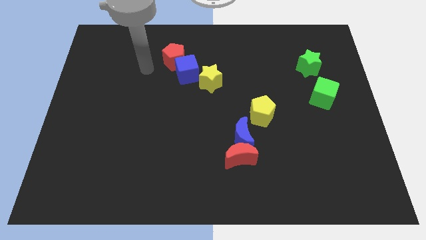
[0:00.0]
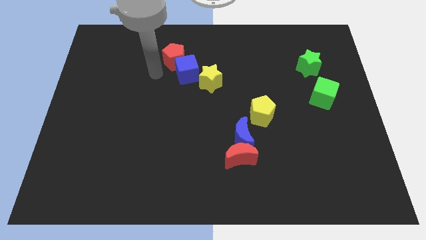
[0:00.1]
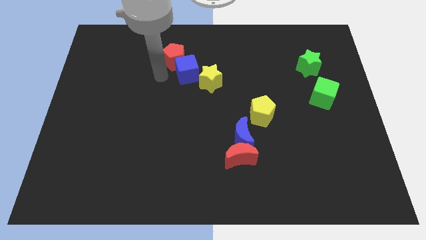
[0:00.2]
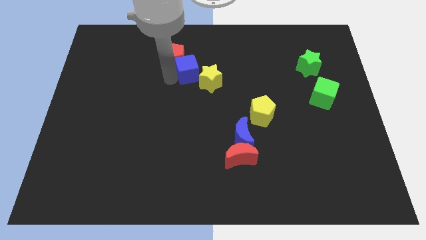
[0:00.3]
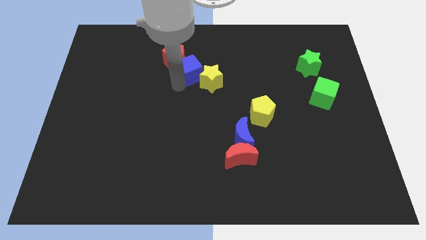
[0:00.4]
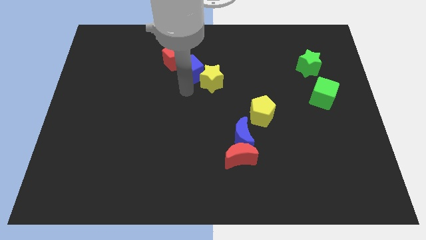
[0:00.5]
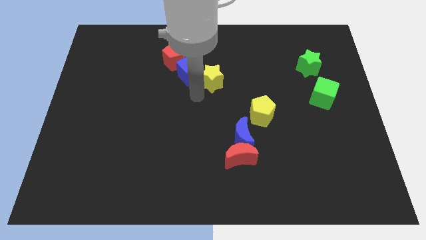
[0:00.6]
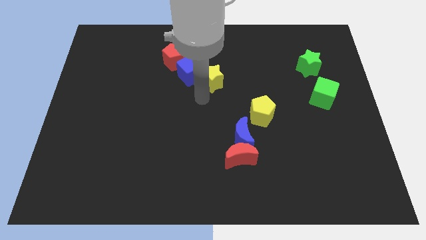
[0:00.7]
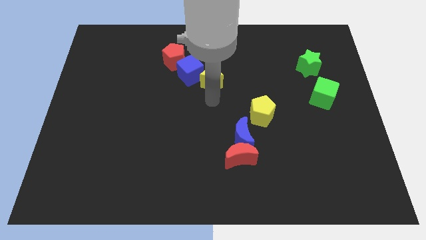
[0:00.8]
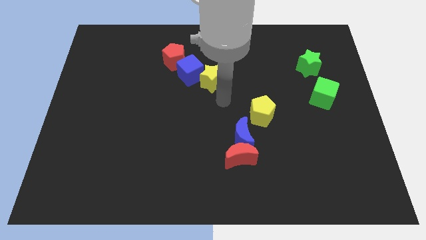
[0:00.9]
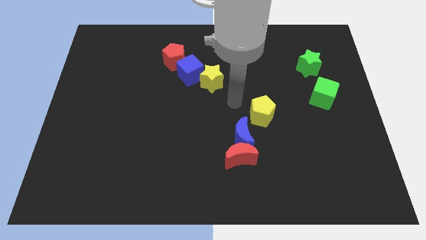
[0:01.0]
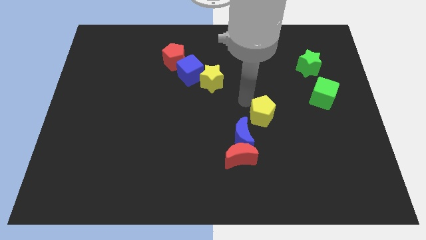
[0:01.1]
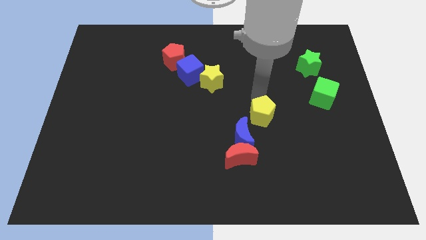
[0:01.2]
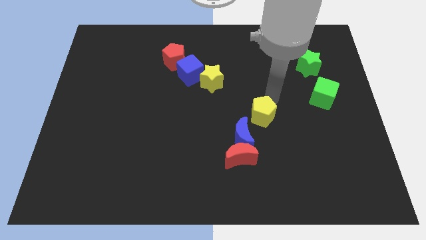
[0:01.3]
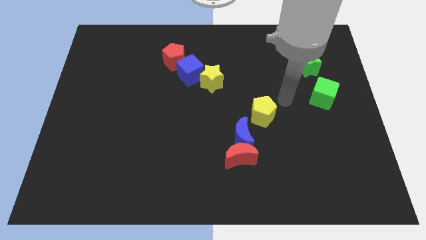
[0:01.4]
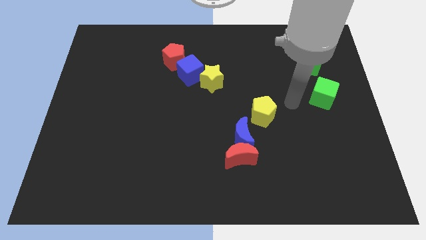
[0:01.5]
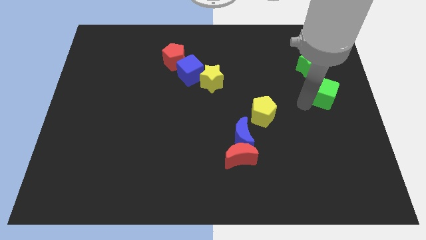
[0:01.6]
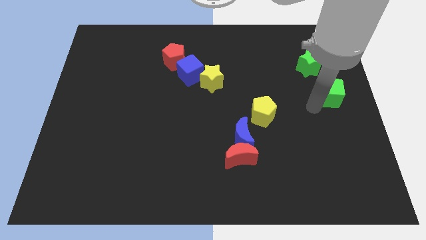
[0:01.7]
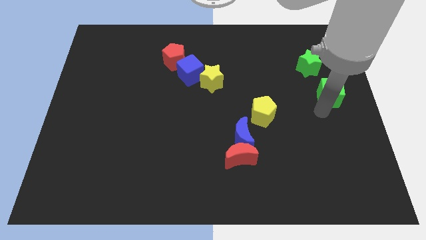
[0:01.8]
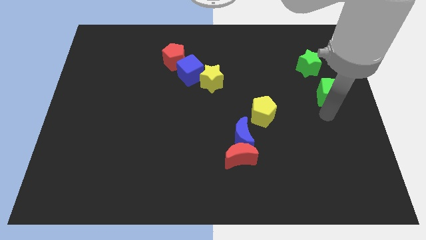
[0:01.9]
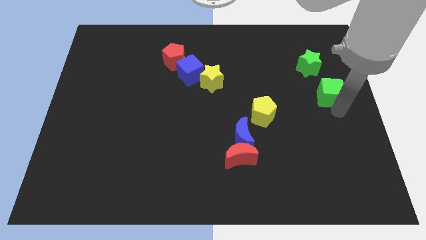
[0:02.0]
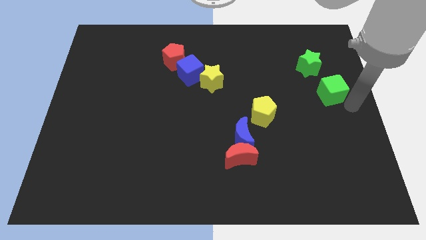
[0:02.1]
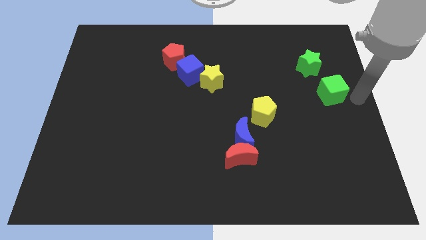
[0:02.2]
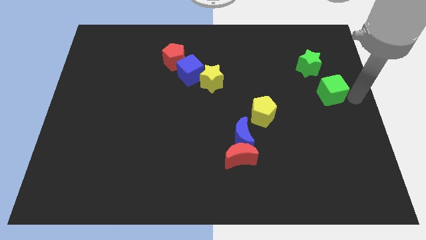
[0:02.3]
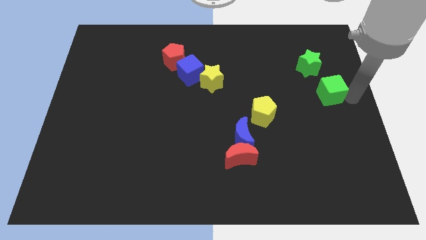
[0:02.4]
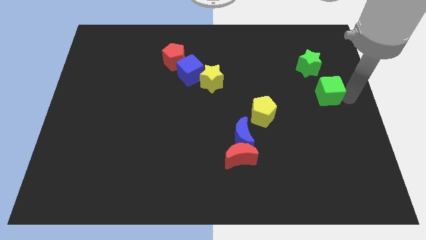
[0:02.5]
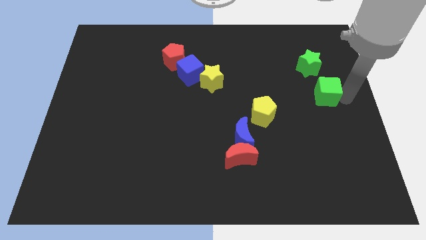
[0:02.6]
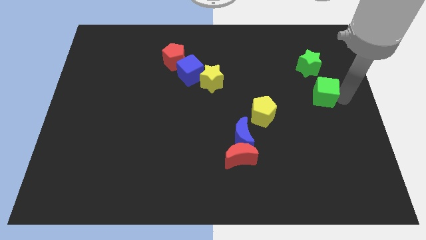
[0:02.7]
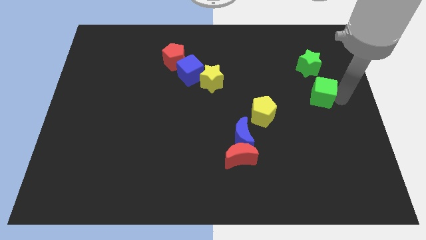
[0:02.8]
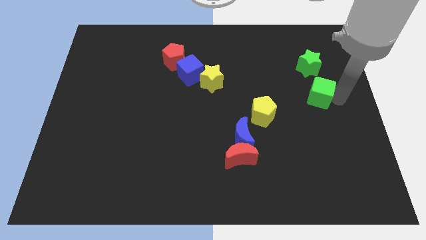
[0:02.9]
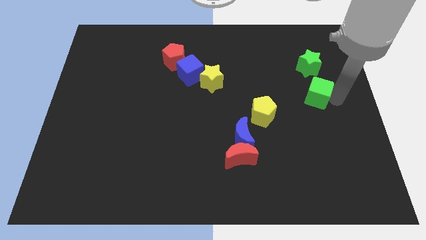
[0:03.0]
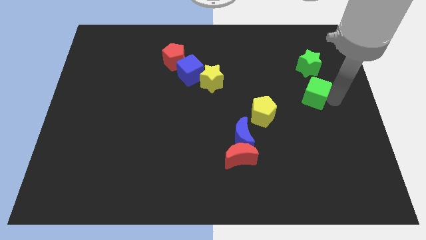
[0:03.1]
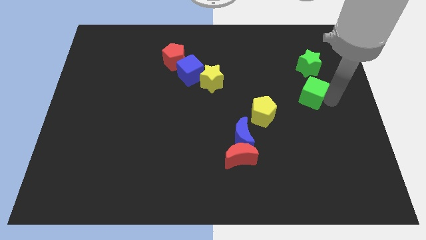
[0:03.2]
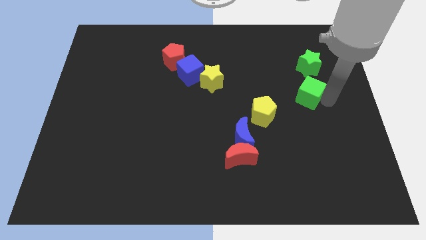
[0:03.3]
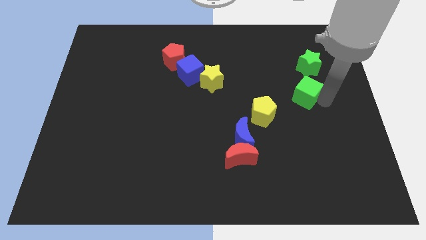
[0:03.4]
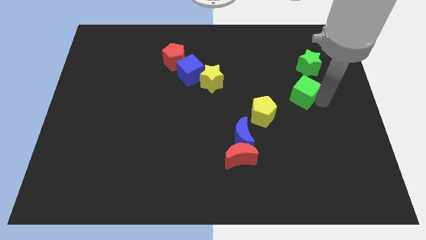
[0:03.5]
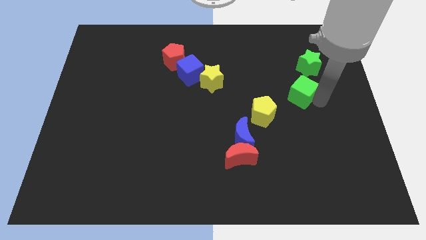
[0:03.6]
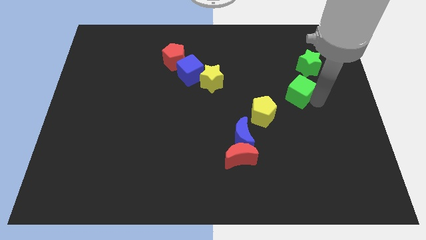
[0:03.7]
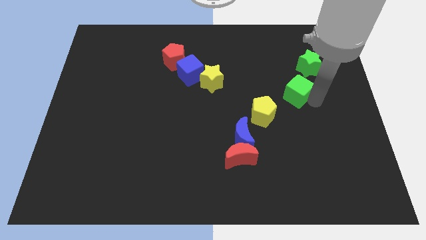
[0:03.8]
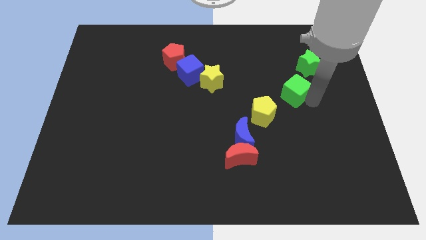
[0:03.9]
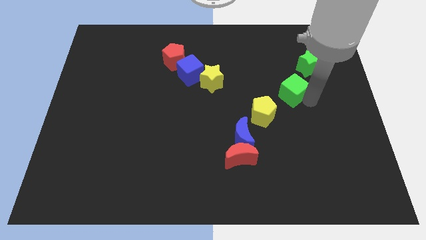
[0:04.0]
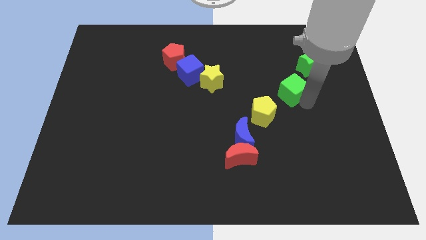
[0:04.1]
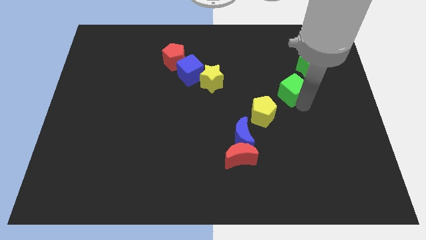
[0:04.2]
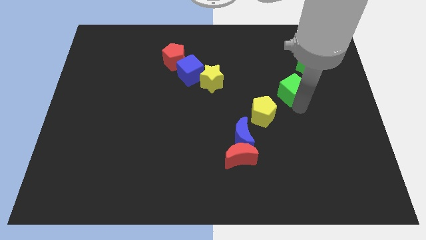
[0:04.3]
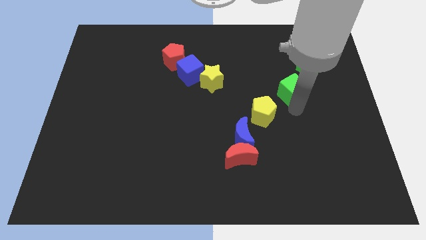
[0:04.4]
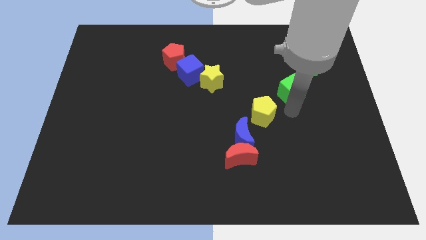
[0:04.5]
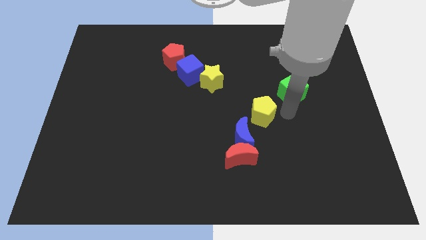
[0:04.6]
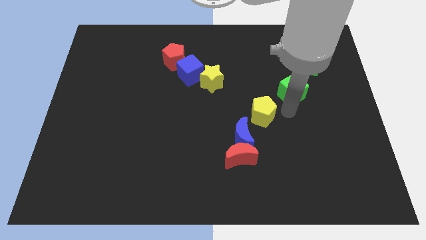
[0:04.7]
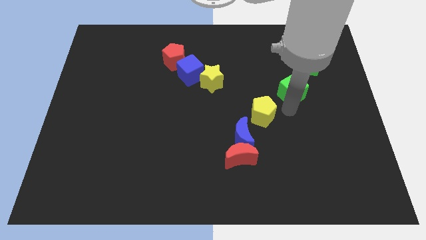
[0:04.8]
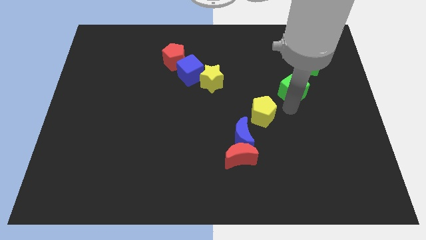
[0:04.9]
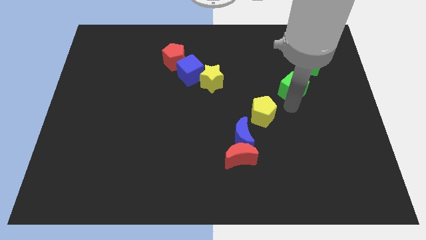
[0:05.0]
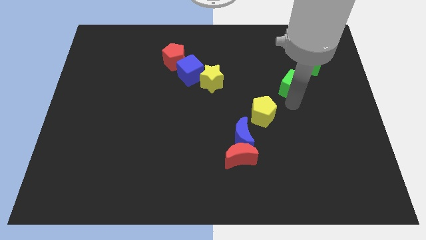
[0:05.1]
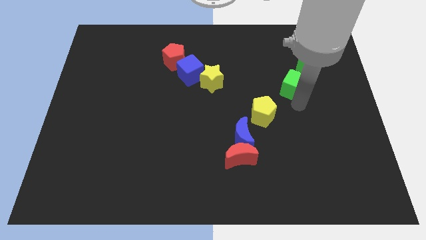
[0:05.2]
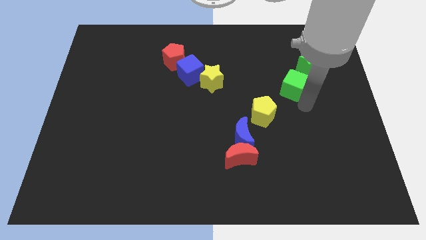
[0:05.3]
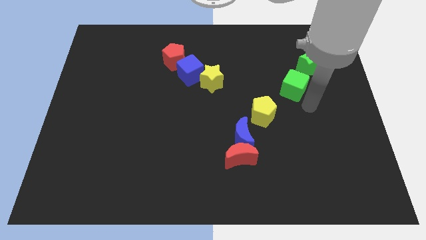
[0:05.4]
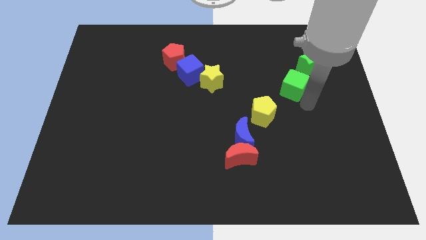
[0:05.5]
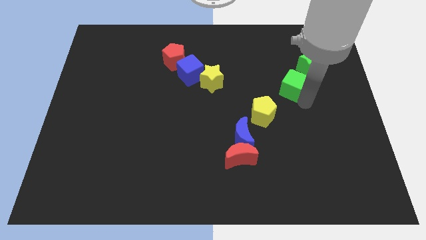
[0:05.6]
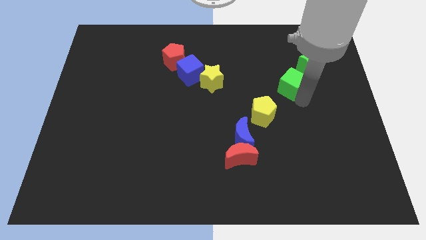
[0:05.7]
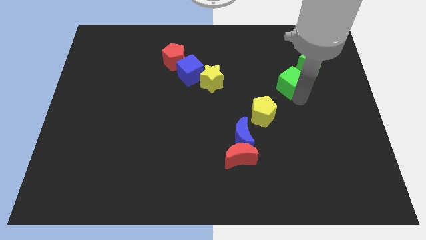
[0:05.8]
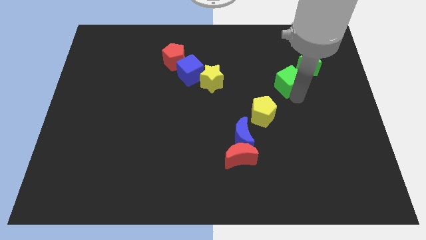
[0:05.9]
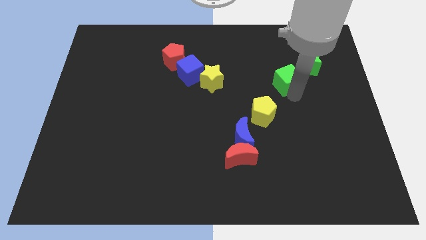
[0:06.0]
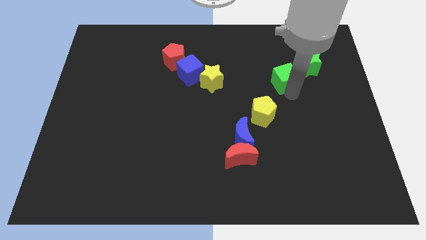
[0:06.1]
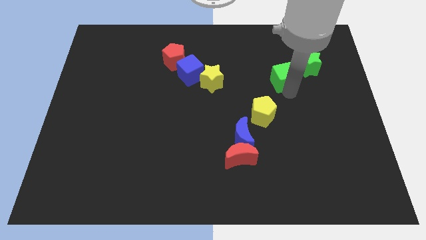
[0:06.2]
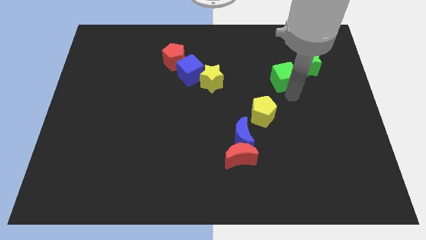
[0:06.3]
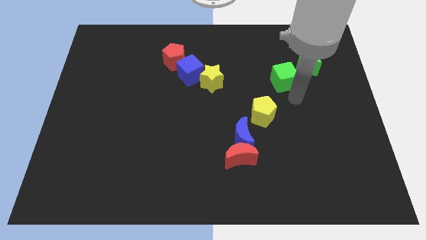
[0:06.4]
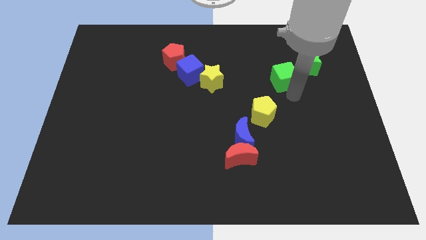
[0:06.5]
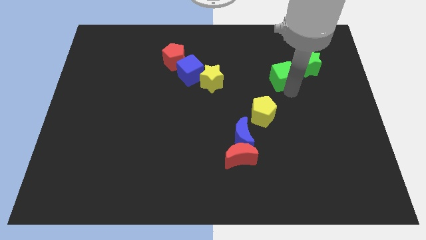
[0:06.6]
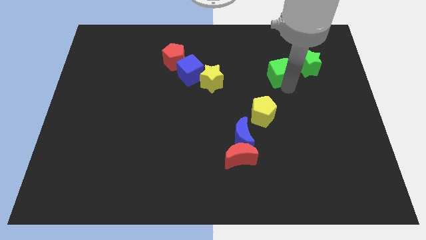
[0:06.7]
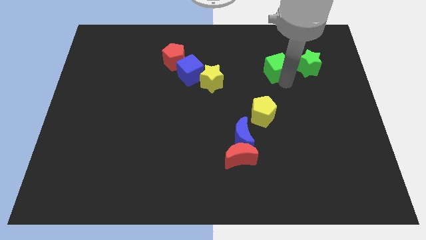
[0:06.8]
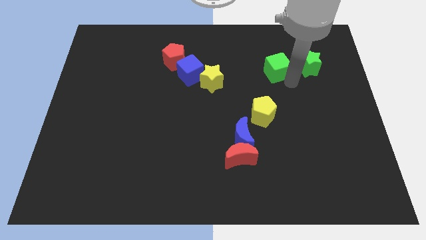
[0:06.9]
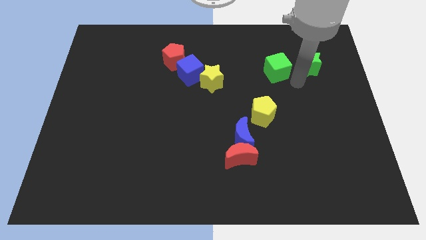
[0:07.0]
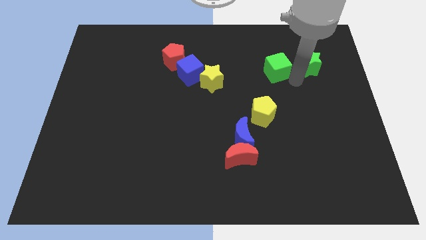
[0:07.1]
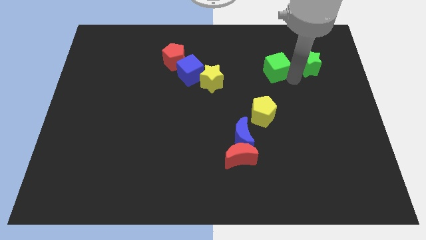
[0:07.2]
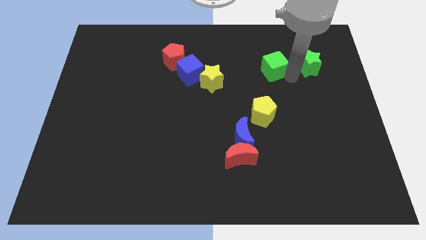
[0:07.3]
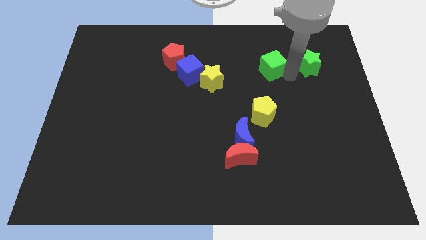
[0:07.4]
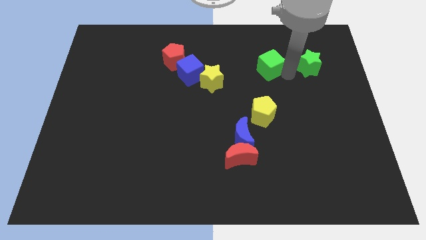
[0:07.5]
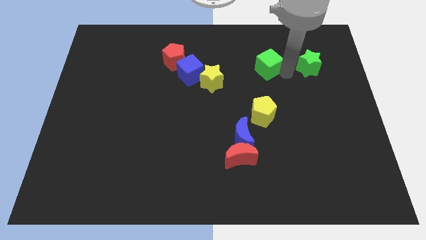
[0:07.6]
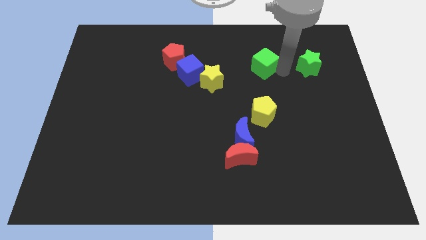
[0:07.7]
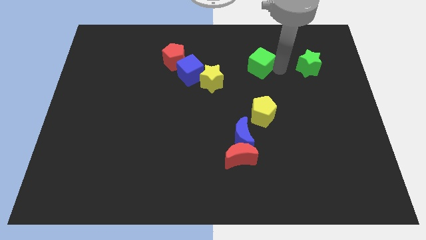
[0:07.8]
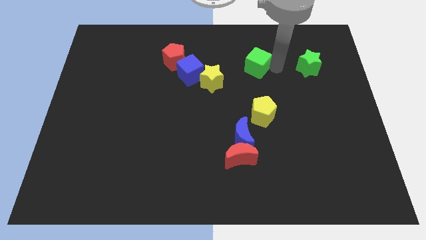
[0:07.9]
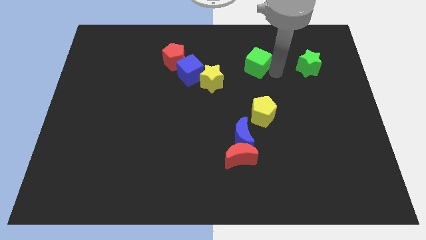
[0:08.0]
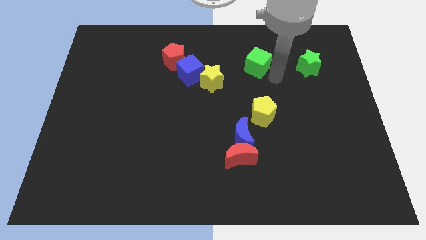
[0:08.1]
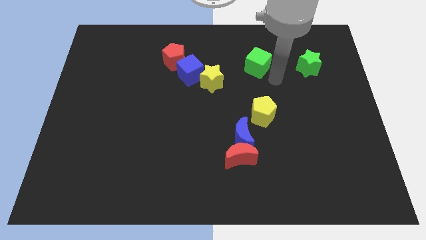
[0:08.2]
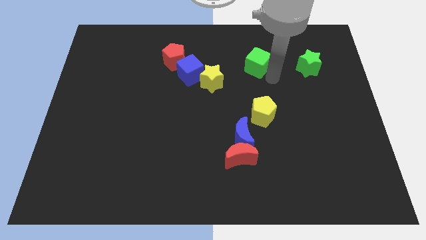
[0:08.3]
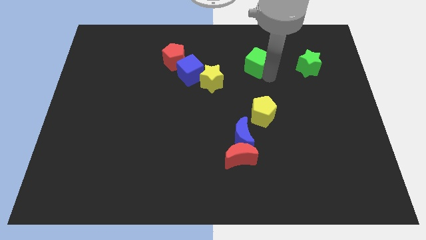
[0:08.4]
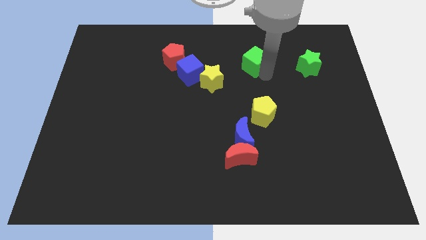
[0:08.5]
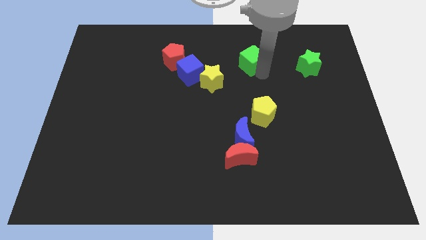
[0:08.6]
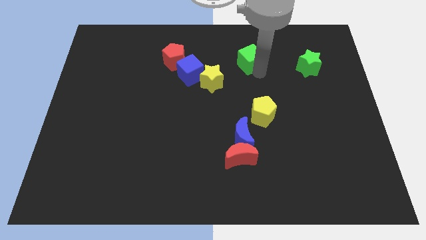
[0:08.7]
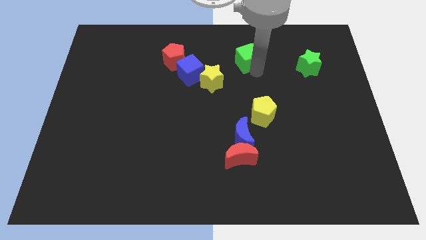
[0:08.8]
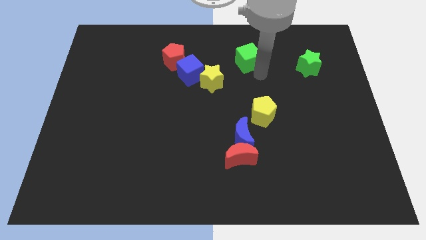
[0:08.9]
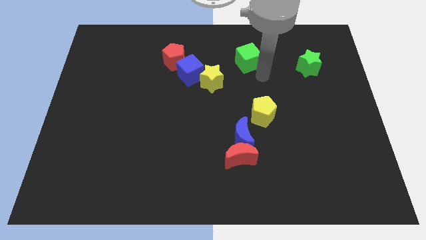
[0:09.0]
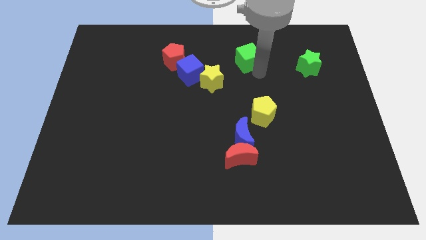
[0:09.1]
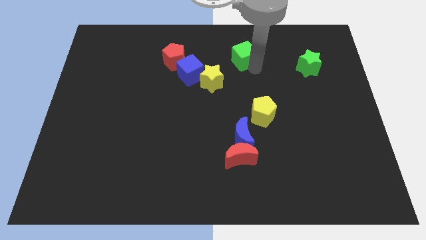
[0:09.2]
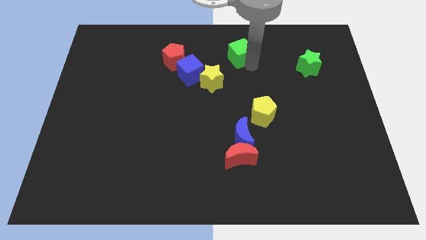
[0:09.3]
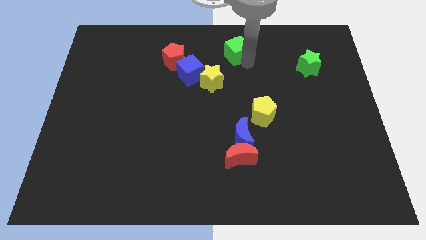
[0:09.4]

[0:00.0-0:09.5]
move the green cube to the top side
